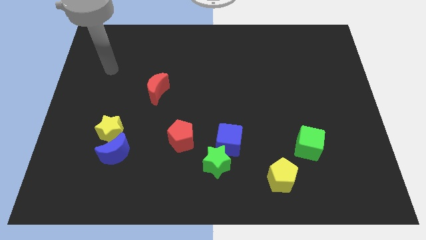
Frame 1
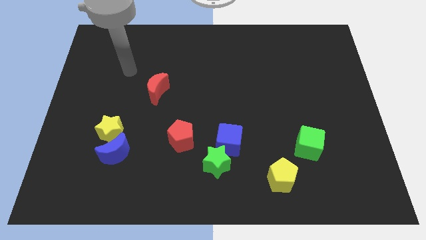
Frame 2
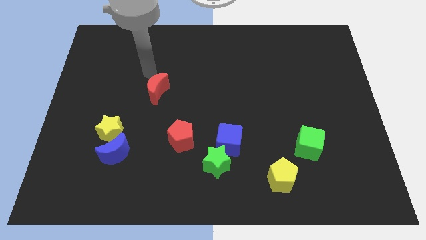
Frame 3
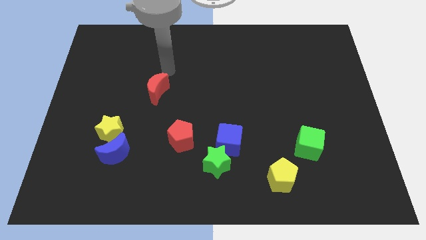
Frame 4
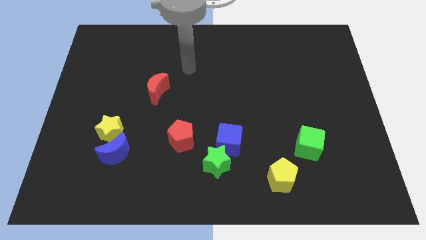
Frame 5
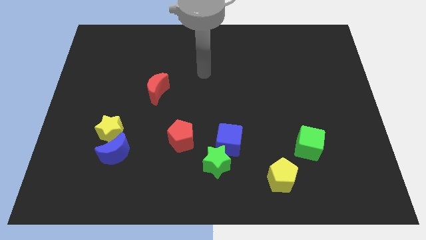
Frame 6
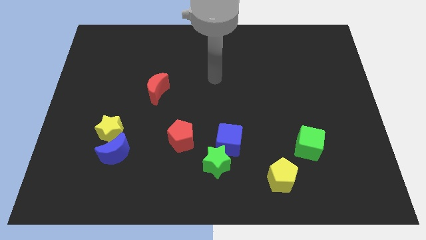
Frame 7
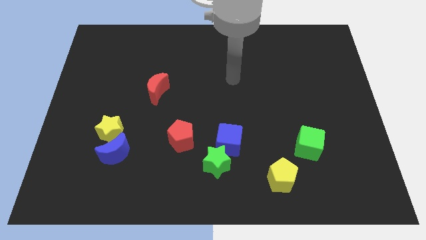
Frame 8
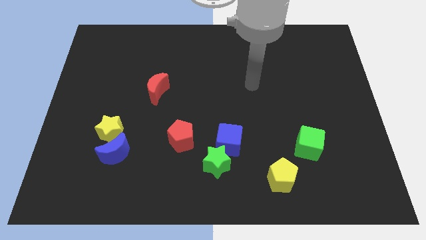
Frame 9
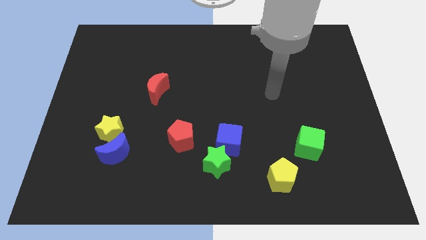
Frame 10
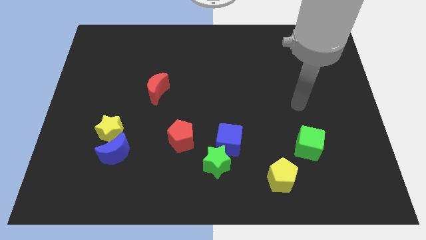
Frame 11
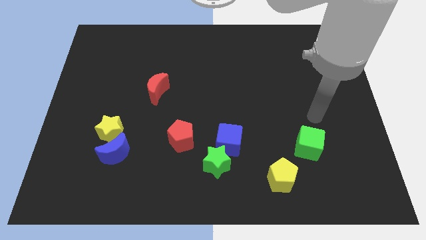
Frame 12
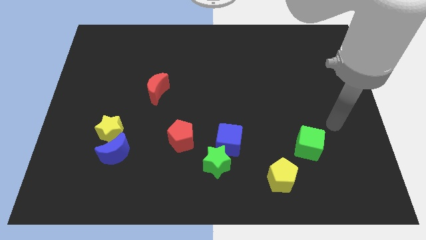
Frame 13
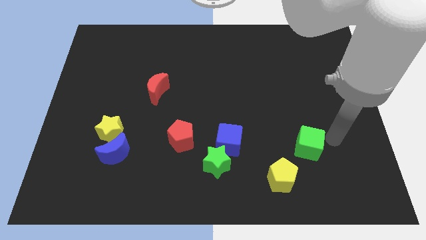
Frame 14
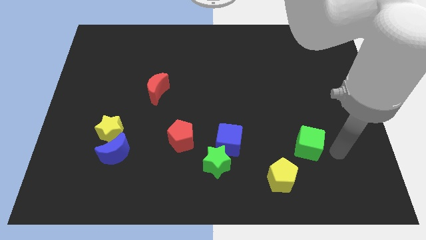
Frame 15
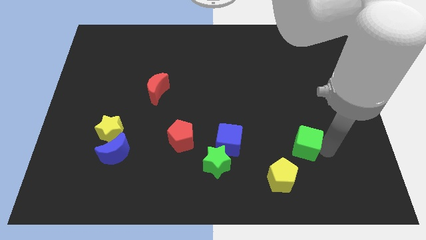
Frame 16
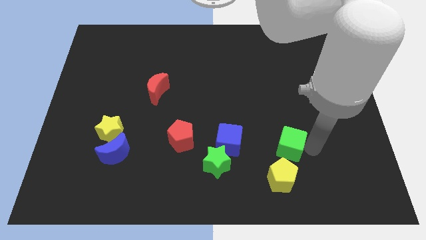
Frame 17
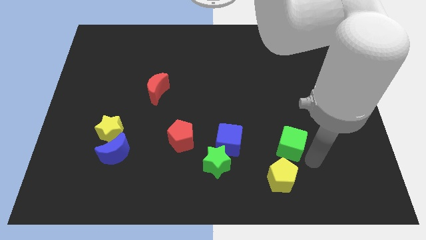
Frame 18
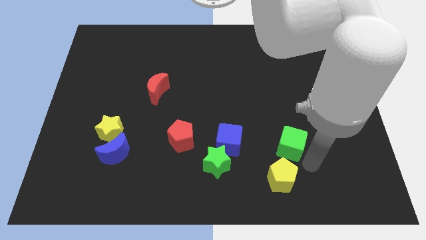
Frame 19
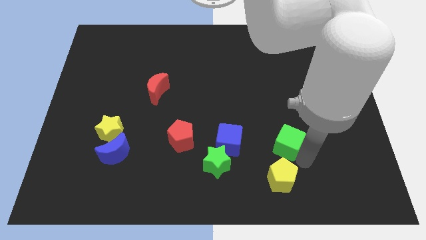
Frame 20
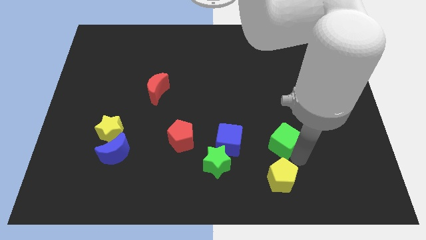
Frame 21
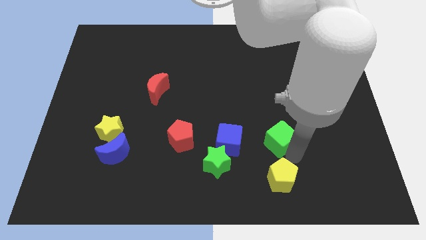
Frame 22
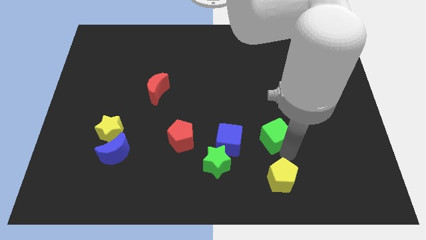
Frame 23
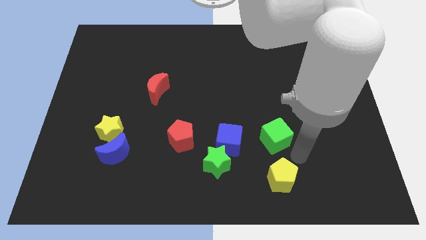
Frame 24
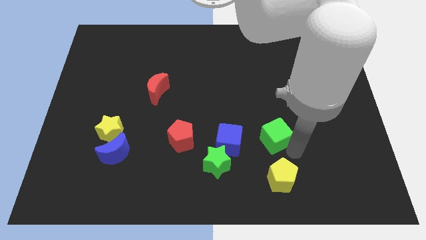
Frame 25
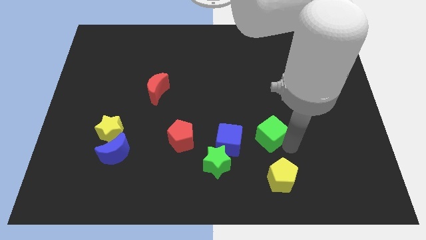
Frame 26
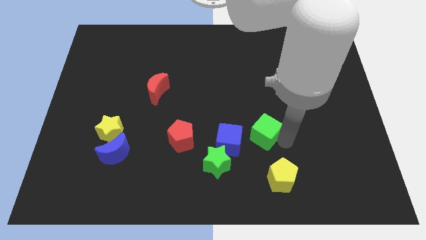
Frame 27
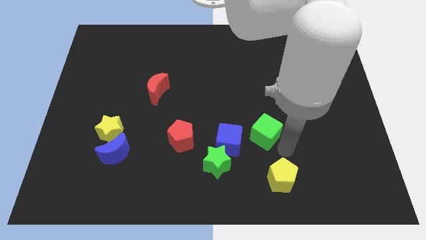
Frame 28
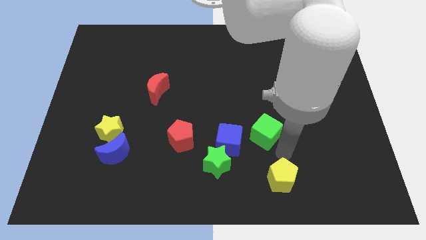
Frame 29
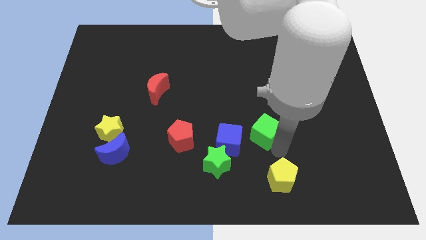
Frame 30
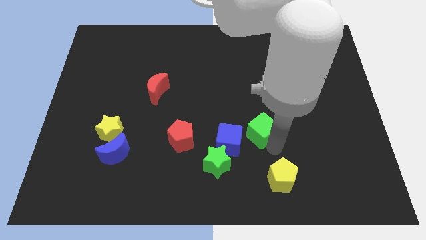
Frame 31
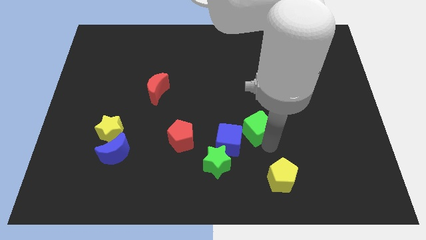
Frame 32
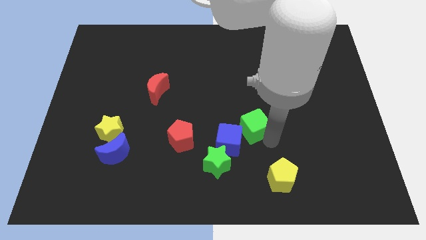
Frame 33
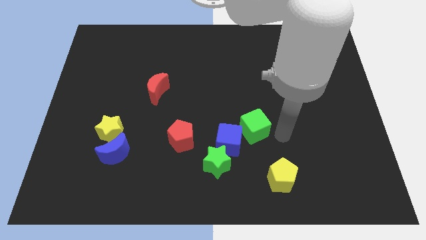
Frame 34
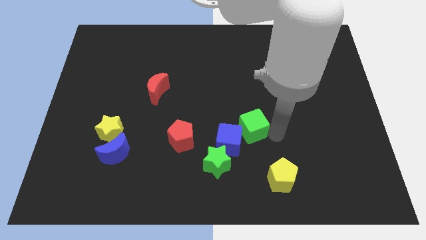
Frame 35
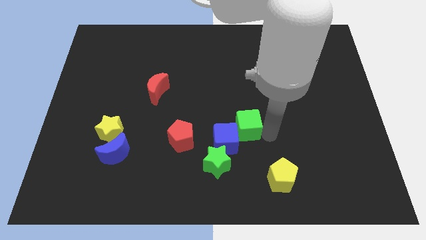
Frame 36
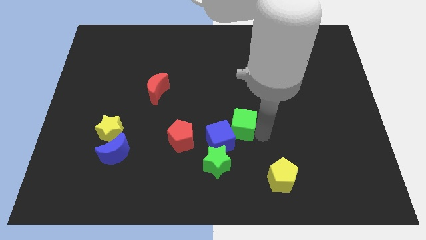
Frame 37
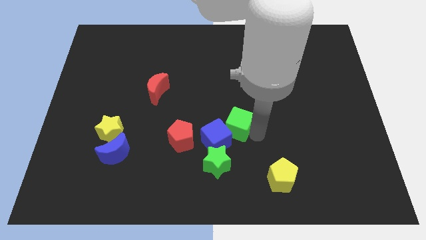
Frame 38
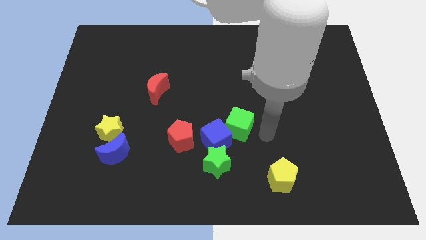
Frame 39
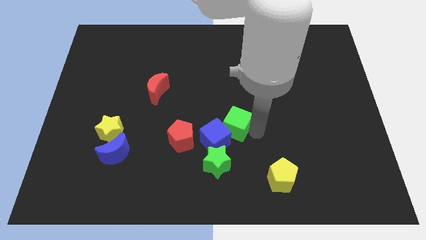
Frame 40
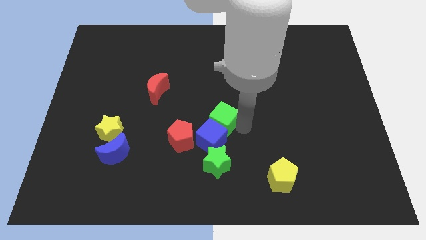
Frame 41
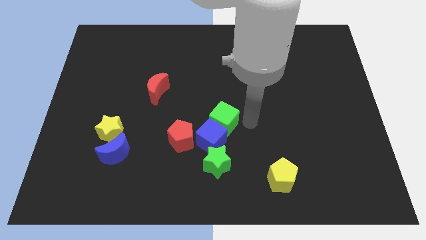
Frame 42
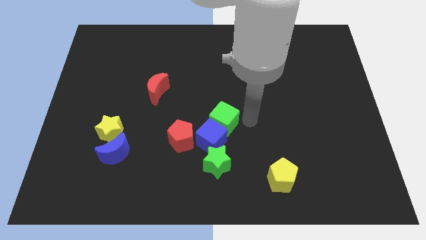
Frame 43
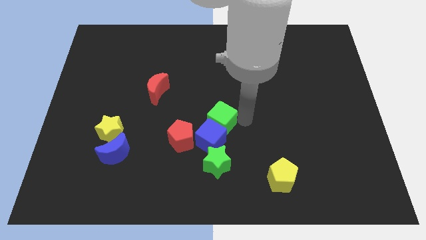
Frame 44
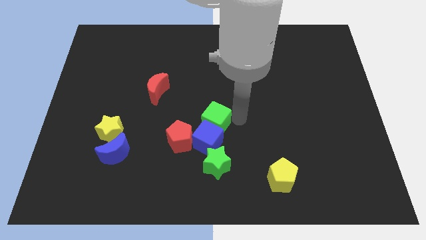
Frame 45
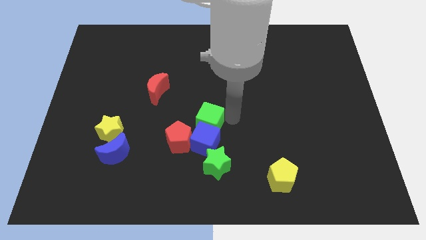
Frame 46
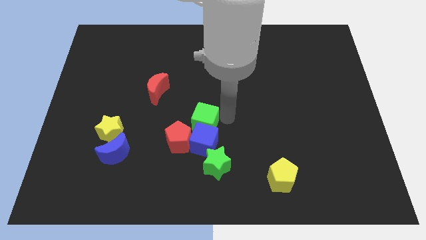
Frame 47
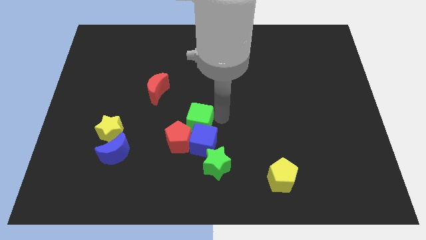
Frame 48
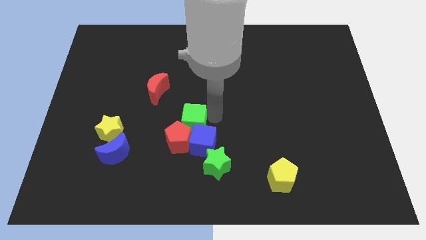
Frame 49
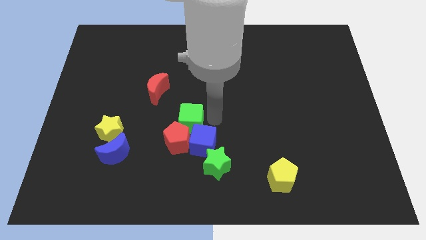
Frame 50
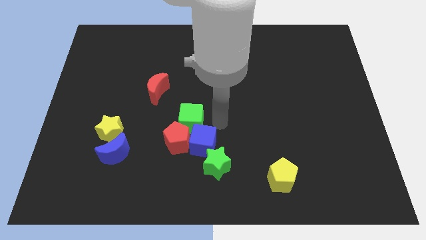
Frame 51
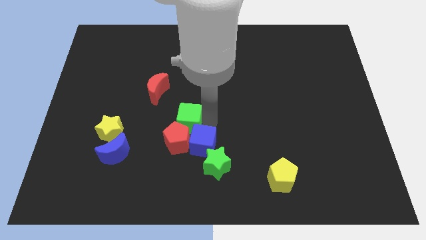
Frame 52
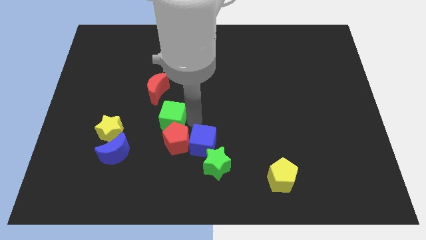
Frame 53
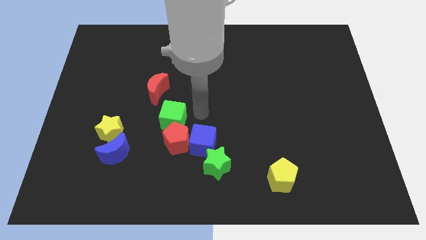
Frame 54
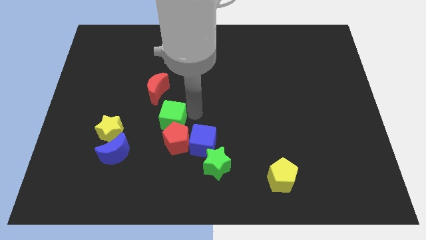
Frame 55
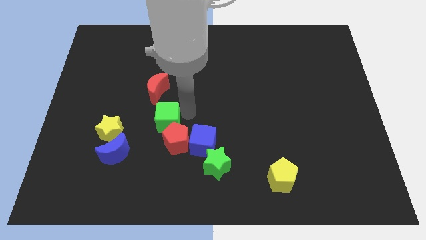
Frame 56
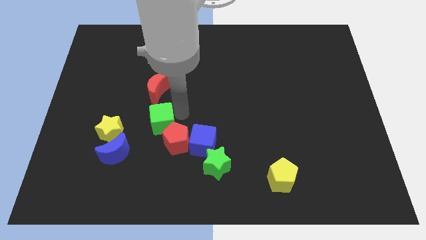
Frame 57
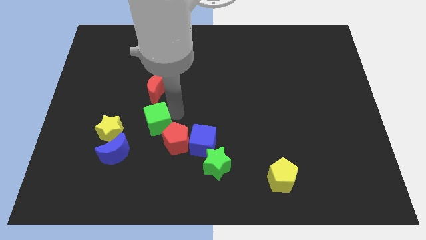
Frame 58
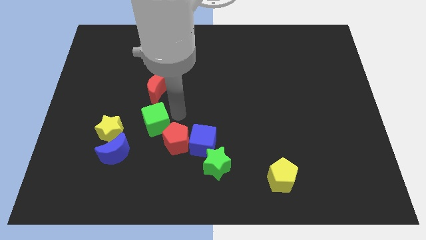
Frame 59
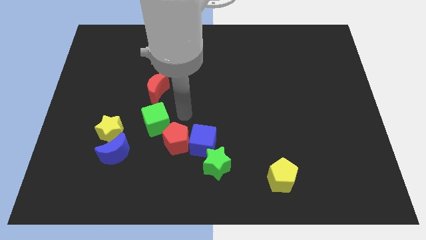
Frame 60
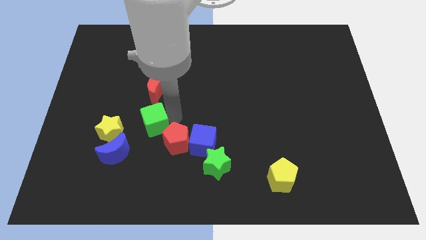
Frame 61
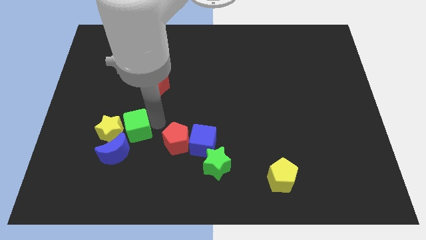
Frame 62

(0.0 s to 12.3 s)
move the green cube next to the yellow star
